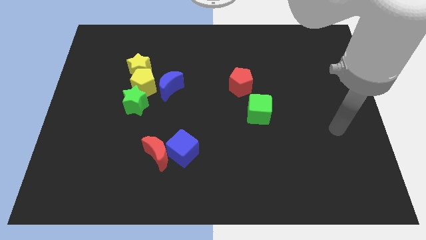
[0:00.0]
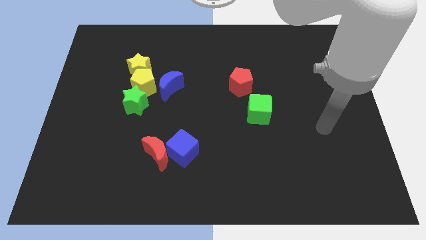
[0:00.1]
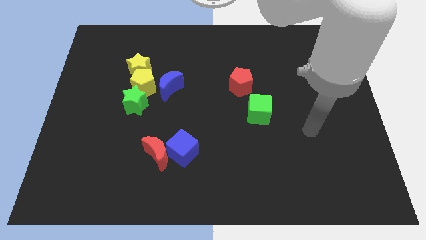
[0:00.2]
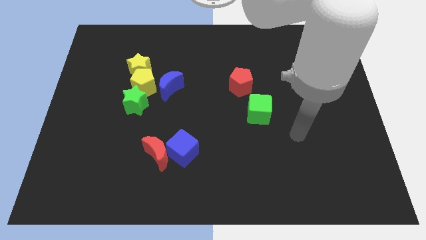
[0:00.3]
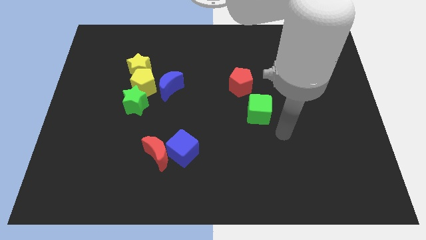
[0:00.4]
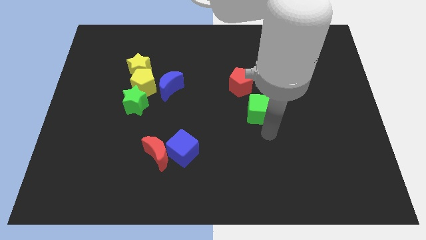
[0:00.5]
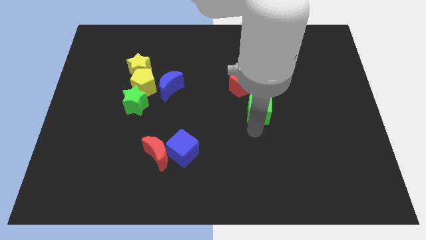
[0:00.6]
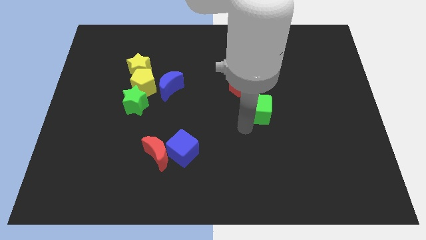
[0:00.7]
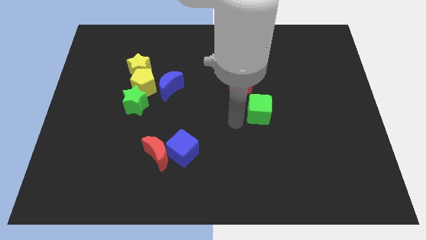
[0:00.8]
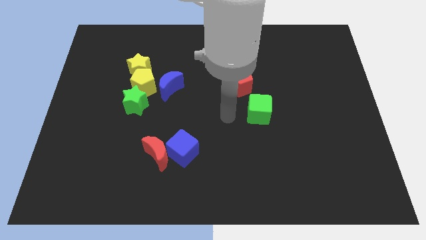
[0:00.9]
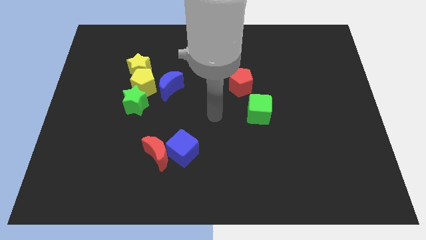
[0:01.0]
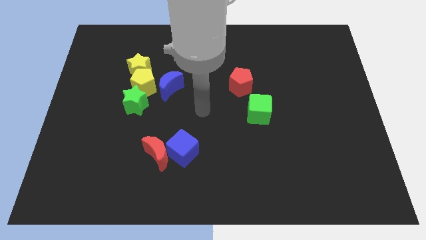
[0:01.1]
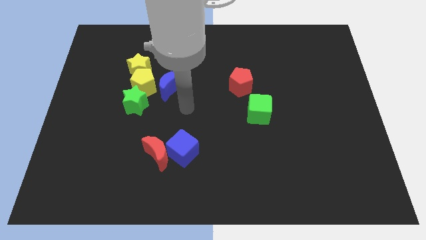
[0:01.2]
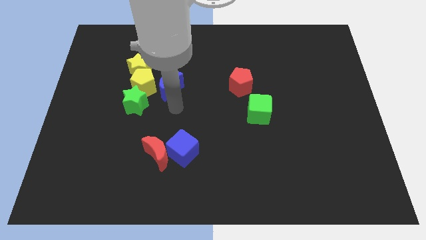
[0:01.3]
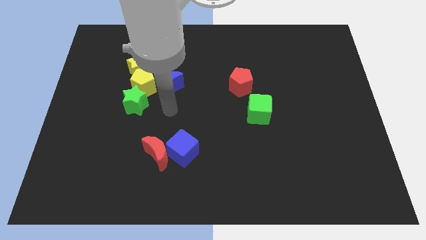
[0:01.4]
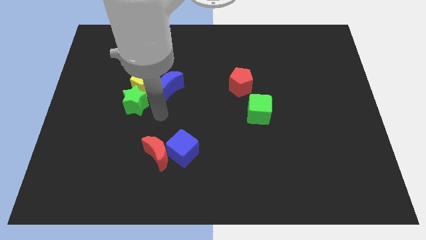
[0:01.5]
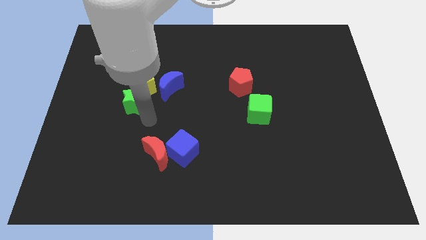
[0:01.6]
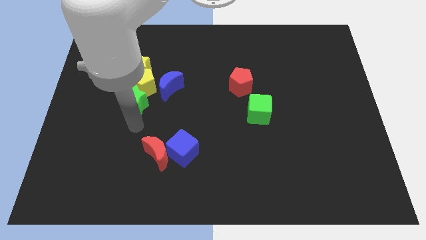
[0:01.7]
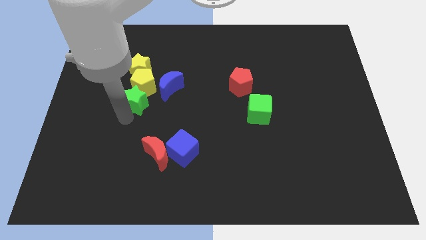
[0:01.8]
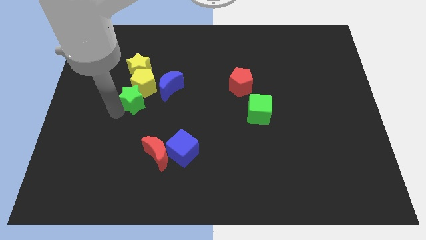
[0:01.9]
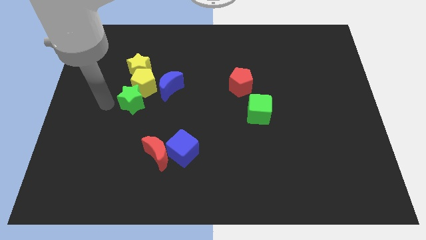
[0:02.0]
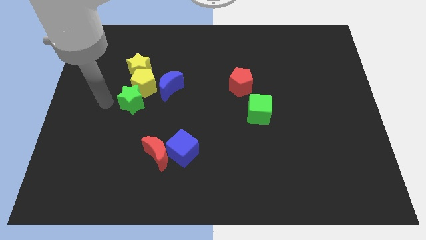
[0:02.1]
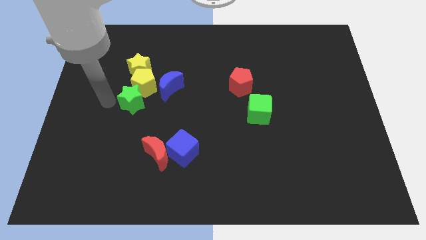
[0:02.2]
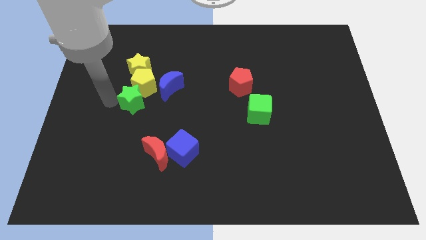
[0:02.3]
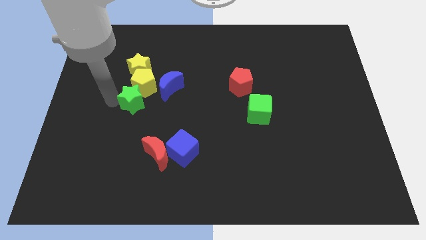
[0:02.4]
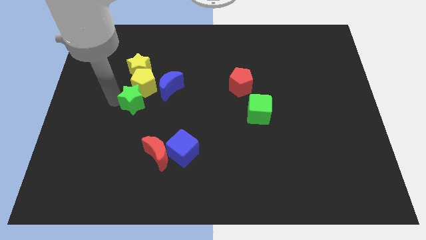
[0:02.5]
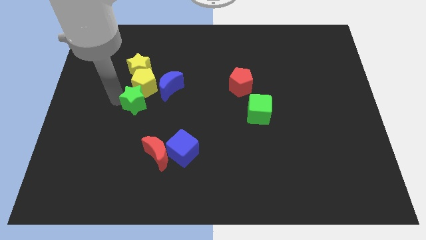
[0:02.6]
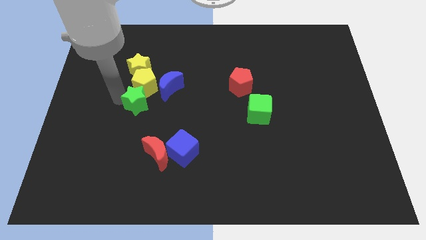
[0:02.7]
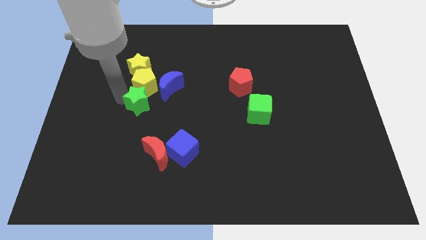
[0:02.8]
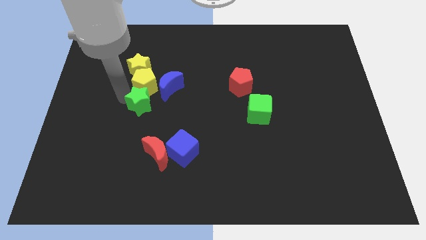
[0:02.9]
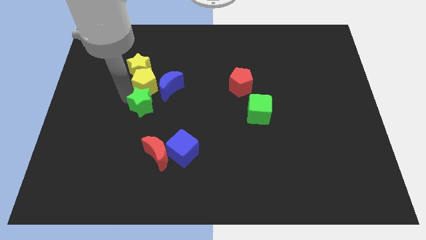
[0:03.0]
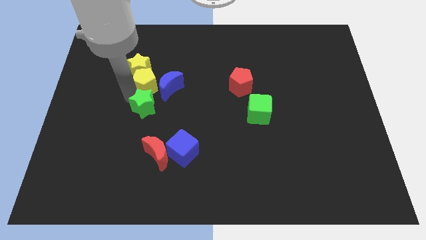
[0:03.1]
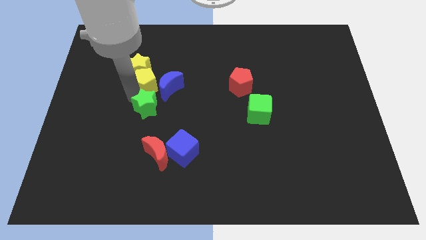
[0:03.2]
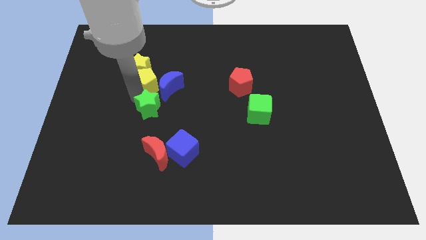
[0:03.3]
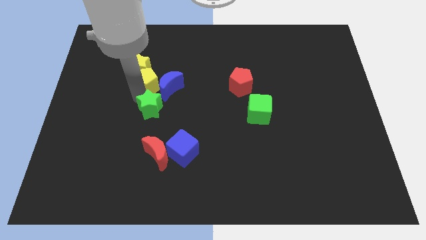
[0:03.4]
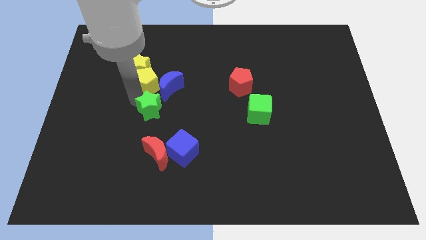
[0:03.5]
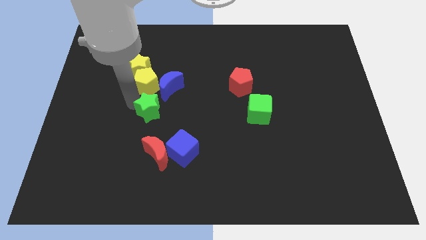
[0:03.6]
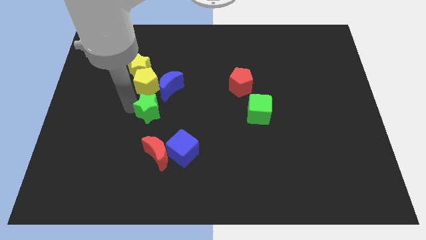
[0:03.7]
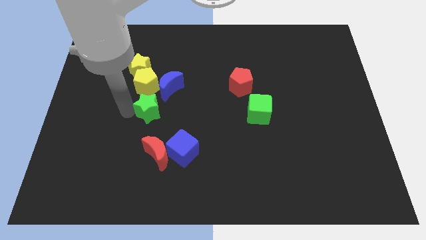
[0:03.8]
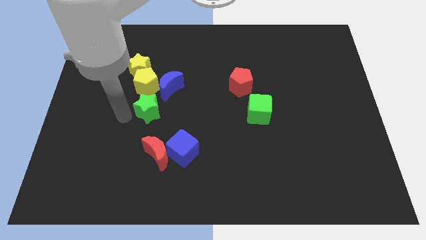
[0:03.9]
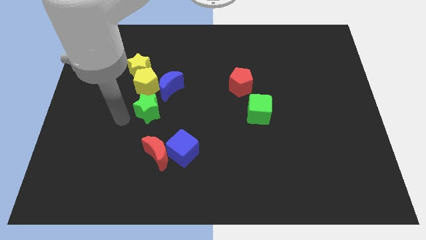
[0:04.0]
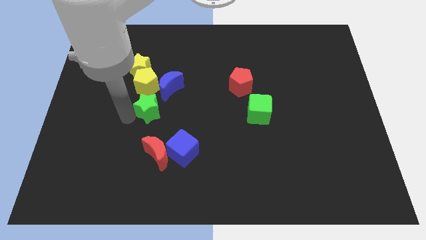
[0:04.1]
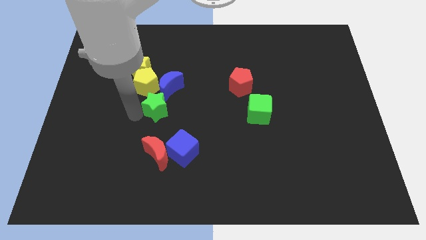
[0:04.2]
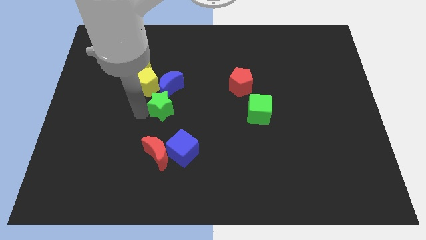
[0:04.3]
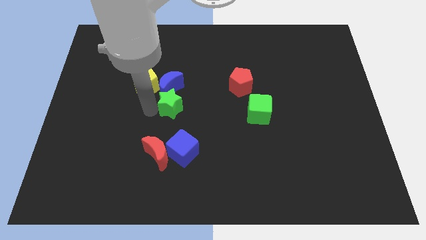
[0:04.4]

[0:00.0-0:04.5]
move the green star right a little

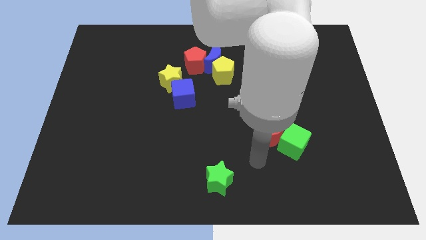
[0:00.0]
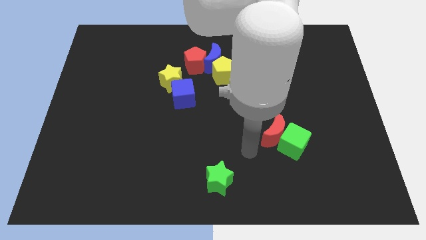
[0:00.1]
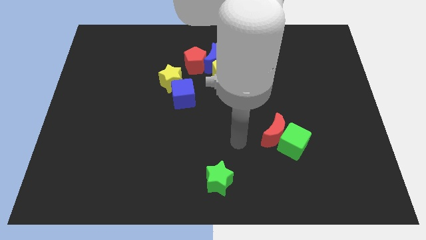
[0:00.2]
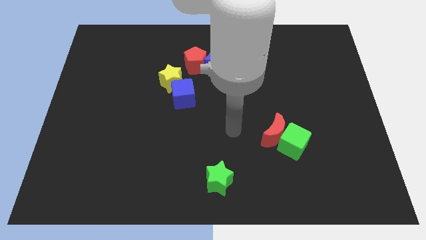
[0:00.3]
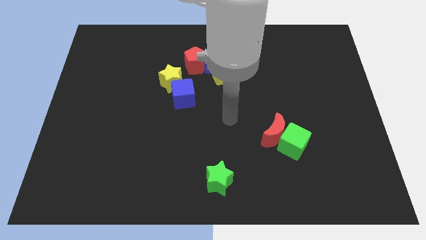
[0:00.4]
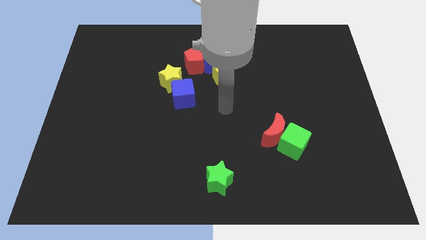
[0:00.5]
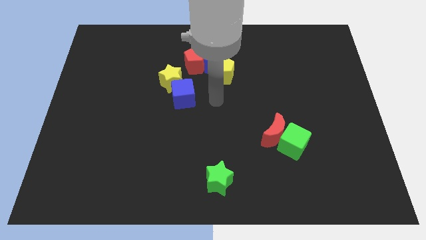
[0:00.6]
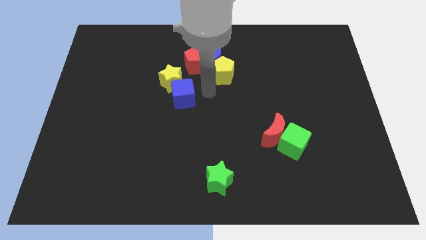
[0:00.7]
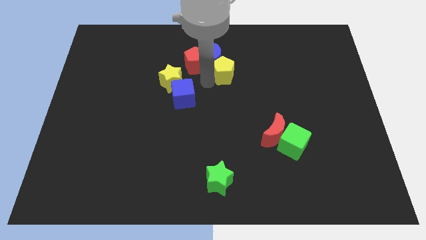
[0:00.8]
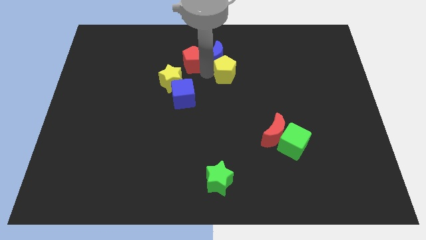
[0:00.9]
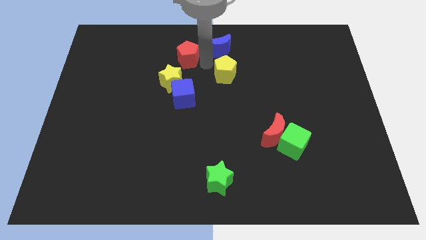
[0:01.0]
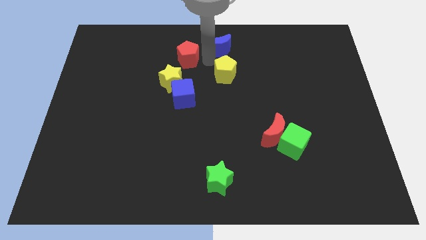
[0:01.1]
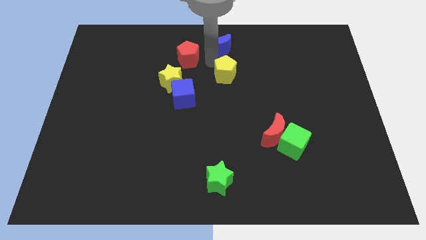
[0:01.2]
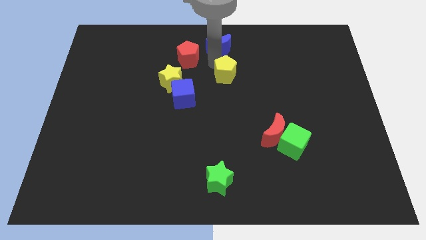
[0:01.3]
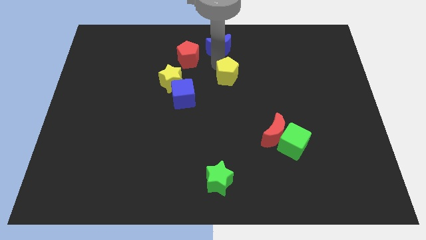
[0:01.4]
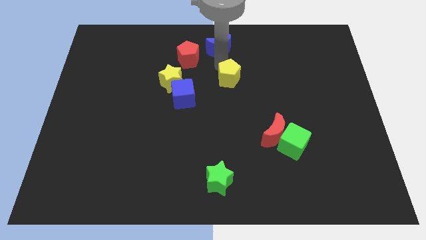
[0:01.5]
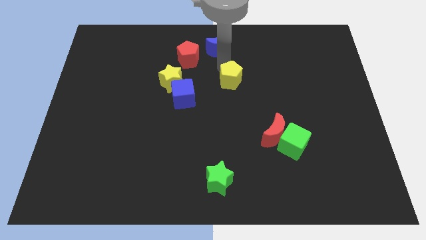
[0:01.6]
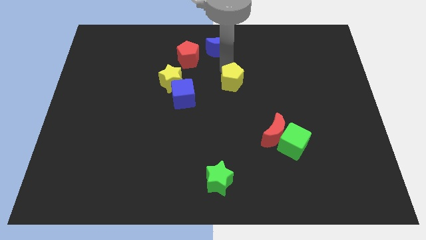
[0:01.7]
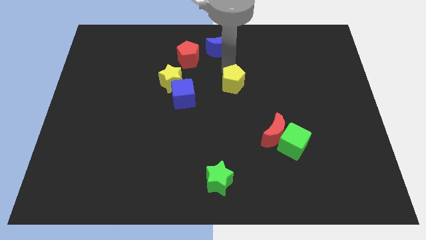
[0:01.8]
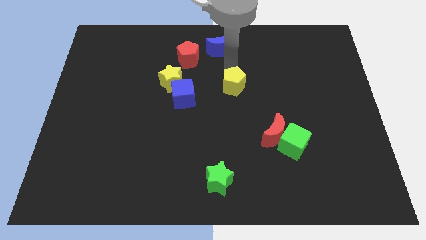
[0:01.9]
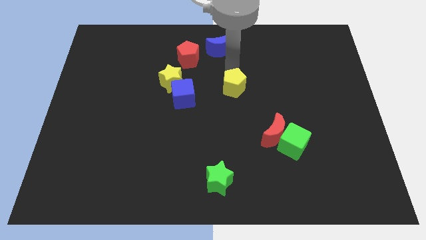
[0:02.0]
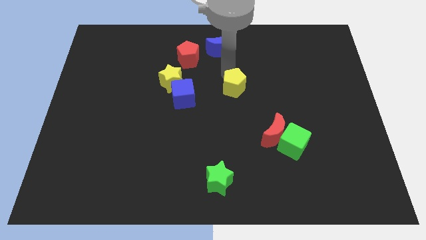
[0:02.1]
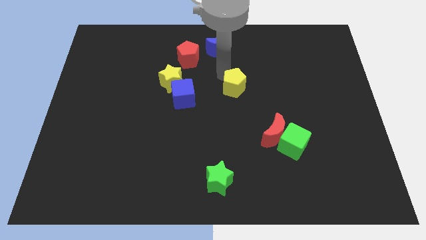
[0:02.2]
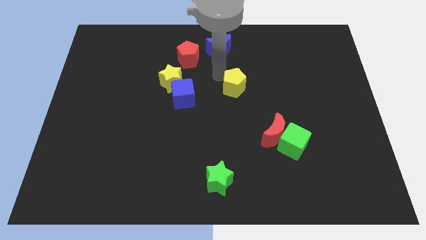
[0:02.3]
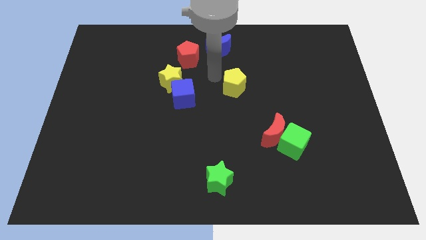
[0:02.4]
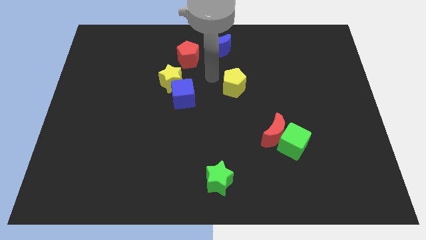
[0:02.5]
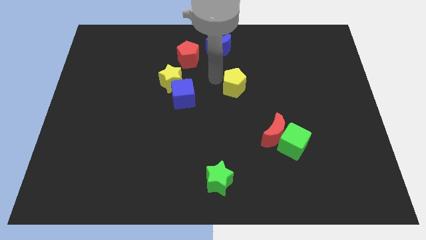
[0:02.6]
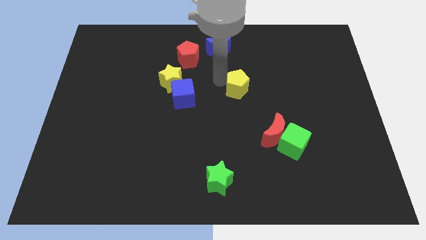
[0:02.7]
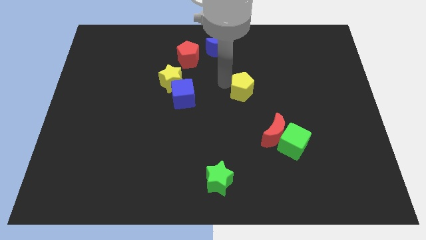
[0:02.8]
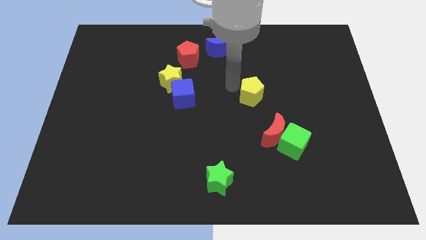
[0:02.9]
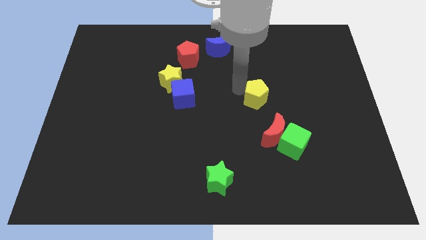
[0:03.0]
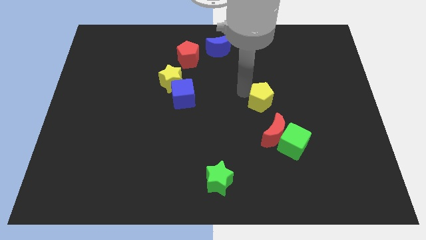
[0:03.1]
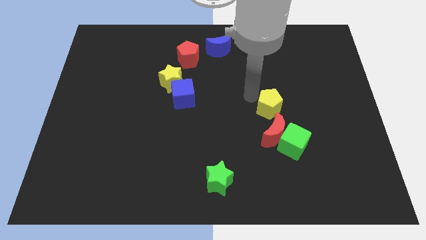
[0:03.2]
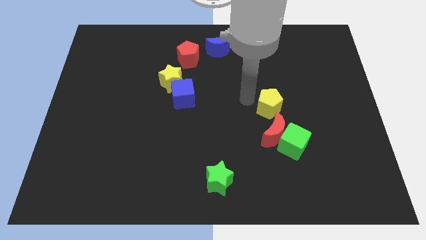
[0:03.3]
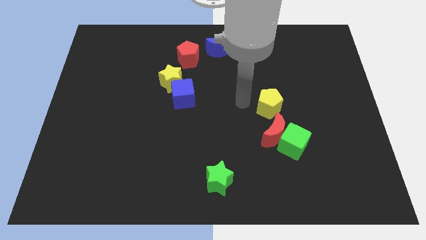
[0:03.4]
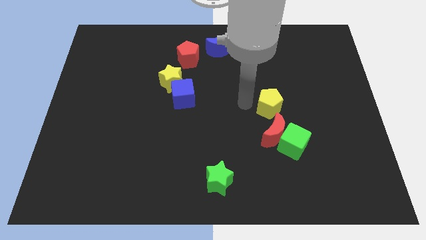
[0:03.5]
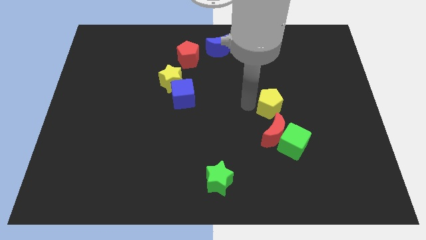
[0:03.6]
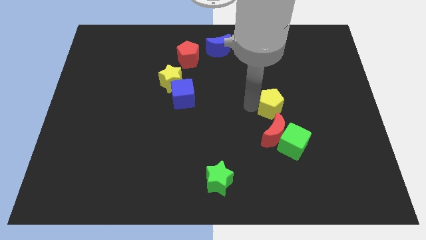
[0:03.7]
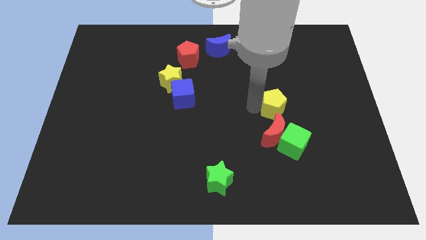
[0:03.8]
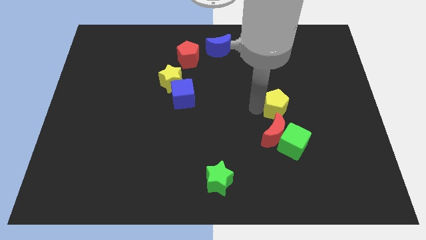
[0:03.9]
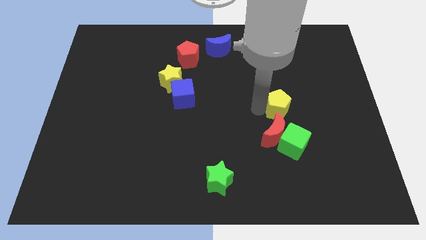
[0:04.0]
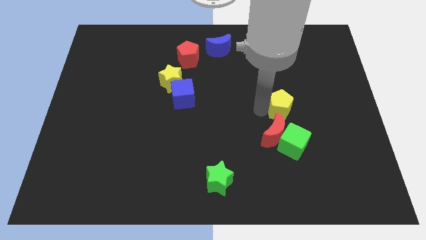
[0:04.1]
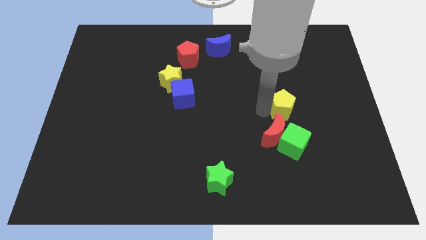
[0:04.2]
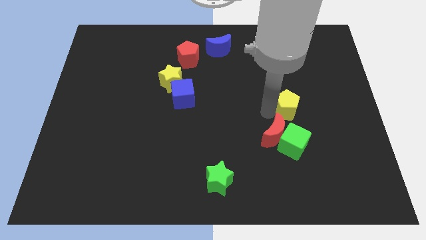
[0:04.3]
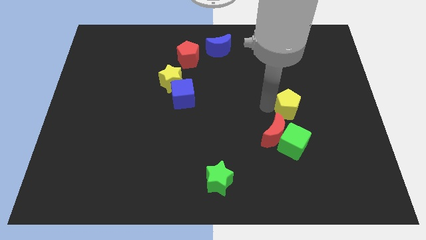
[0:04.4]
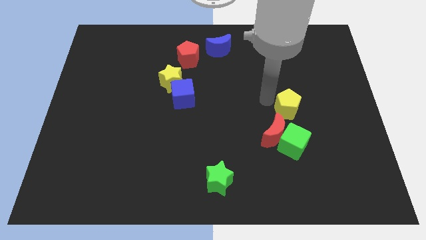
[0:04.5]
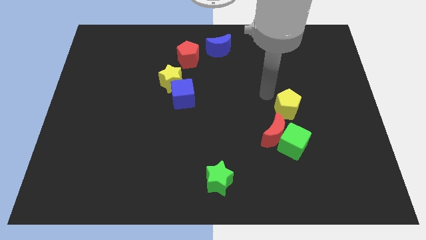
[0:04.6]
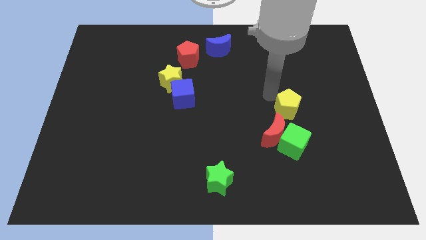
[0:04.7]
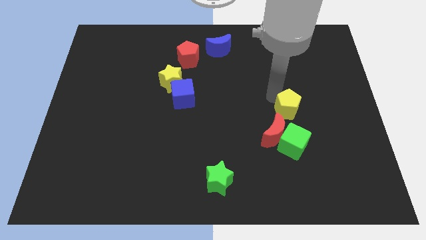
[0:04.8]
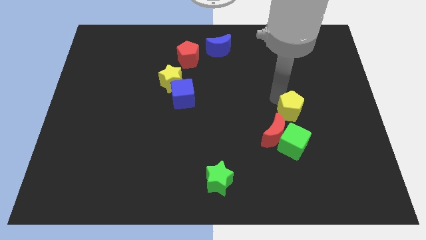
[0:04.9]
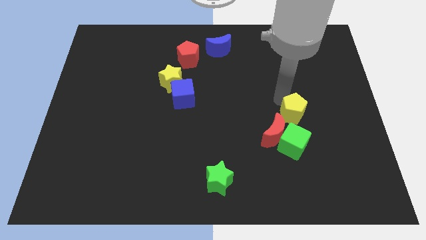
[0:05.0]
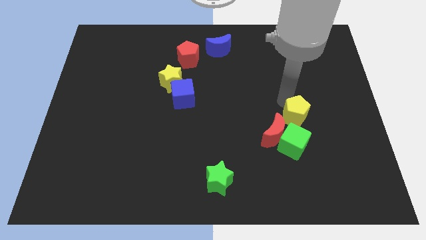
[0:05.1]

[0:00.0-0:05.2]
push the yellow pentagon down and to the right
